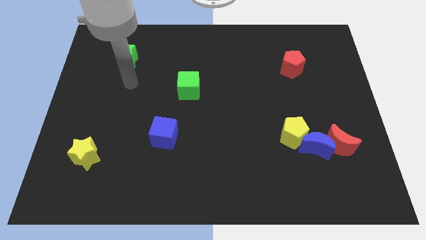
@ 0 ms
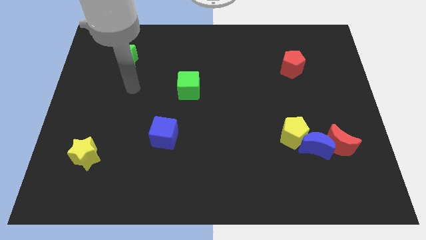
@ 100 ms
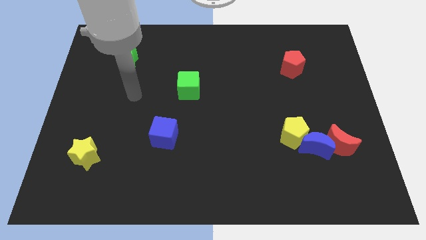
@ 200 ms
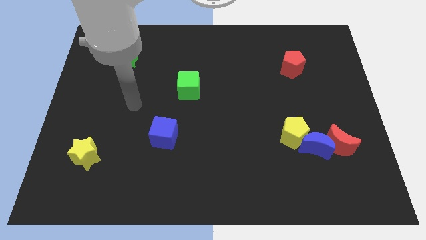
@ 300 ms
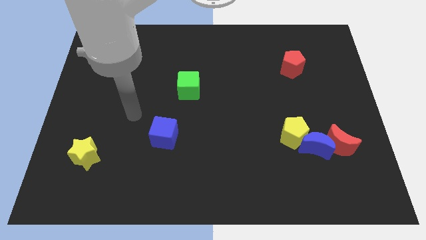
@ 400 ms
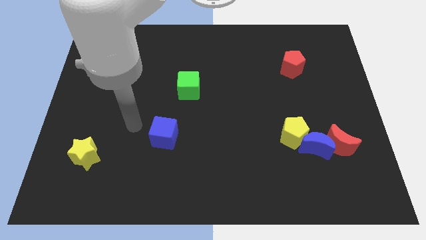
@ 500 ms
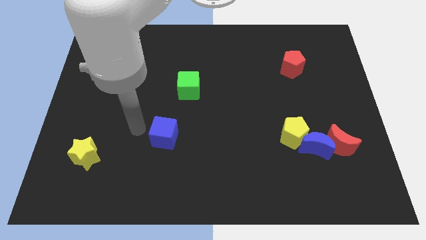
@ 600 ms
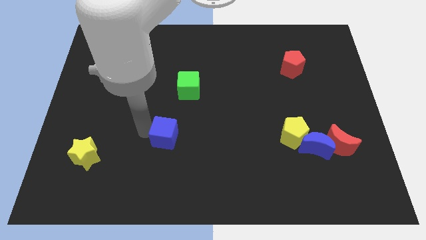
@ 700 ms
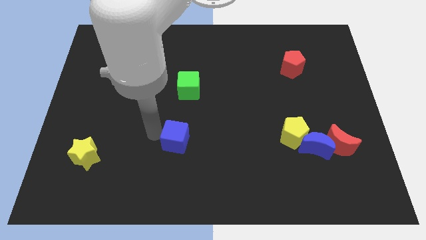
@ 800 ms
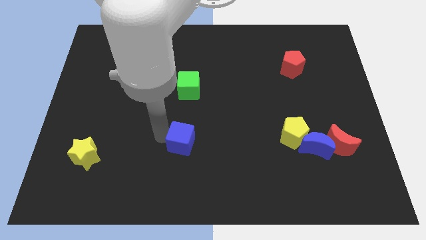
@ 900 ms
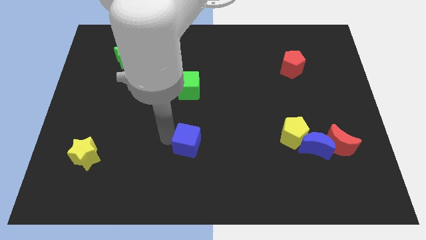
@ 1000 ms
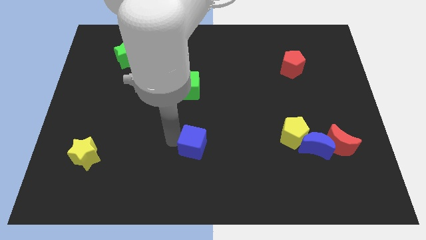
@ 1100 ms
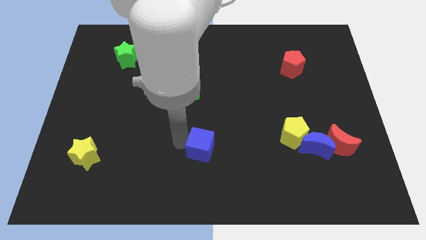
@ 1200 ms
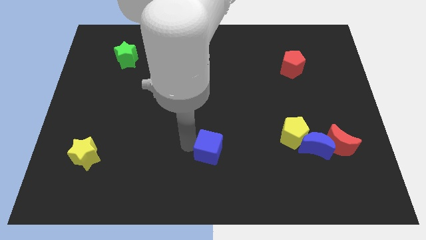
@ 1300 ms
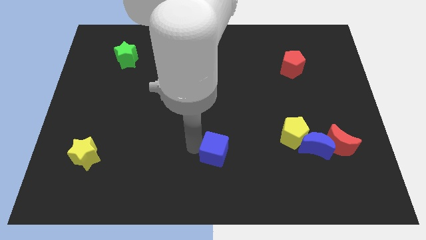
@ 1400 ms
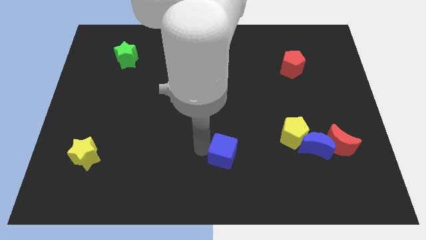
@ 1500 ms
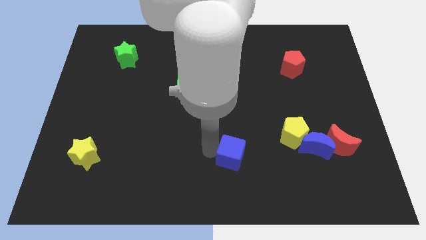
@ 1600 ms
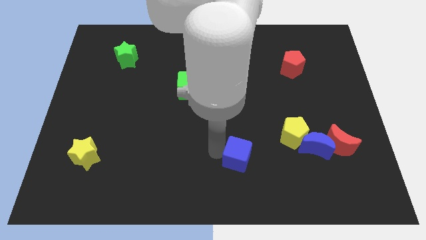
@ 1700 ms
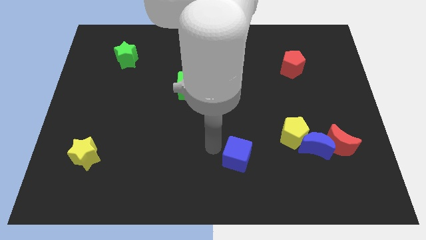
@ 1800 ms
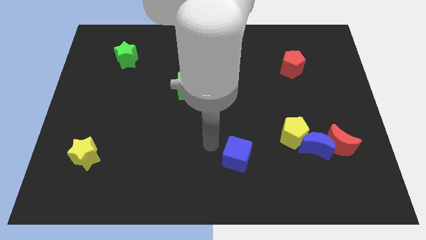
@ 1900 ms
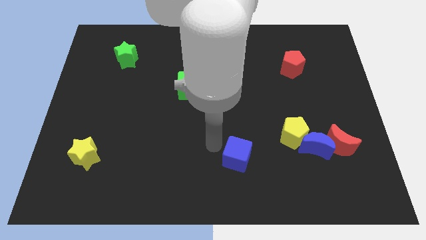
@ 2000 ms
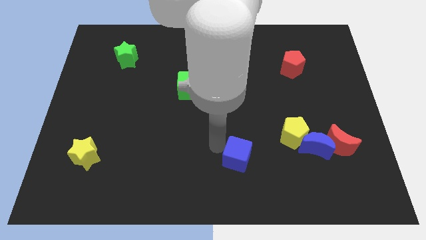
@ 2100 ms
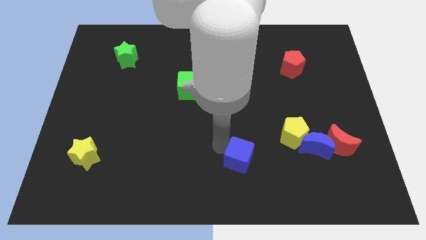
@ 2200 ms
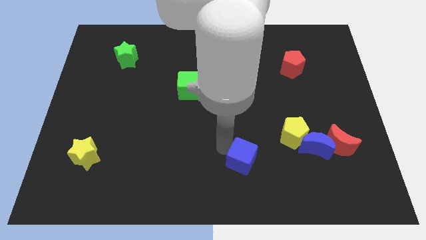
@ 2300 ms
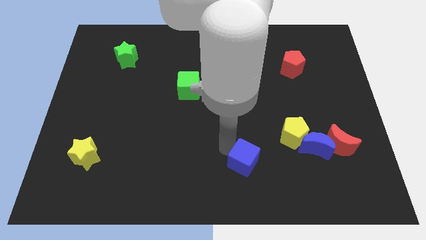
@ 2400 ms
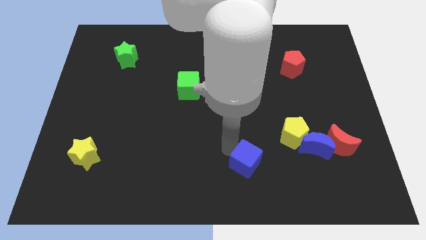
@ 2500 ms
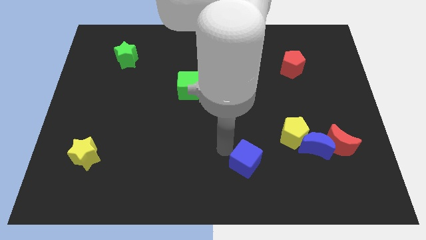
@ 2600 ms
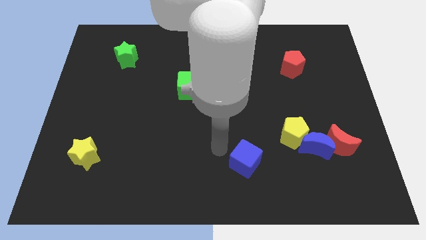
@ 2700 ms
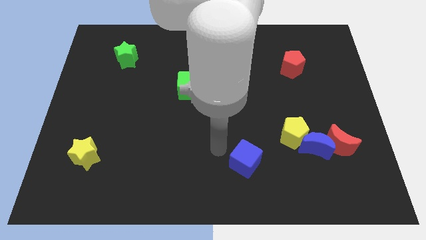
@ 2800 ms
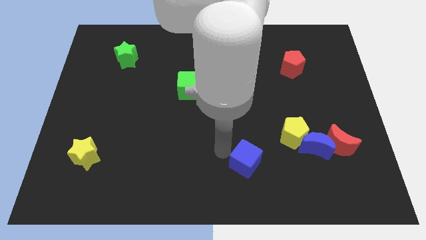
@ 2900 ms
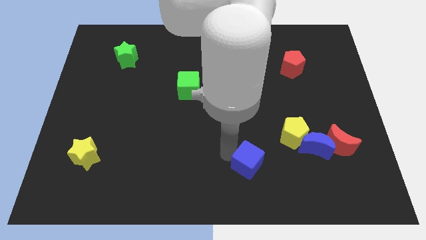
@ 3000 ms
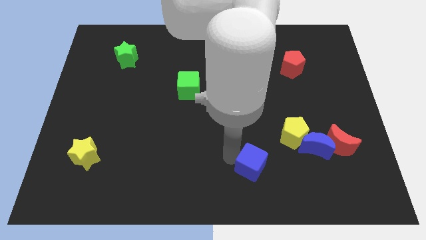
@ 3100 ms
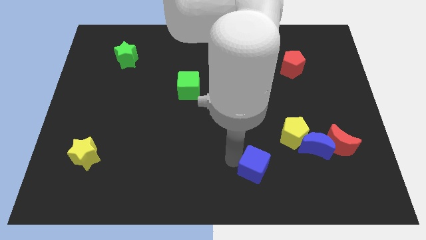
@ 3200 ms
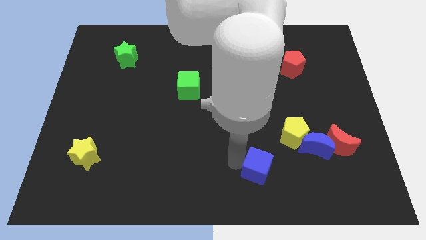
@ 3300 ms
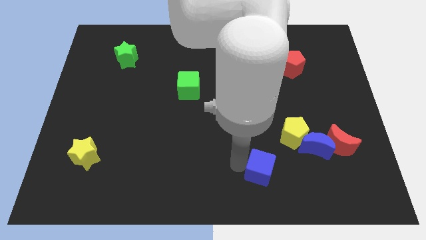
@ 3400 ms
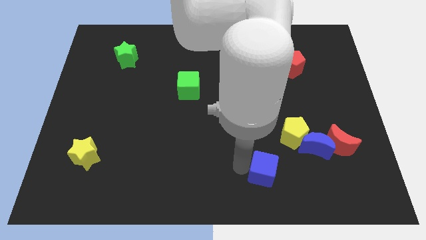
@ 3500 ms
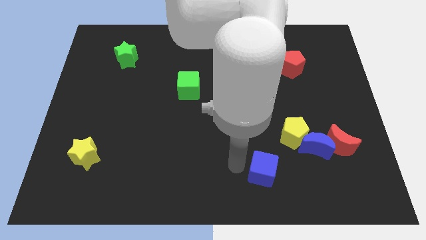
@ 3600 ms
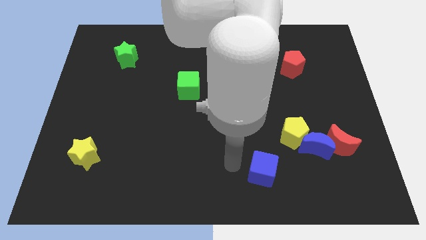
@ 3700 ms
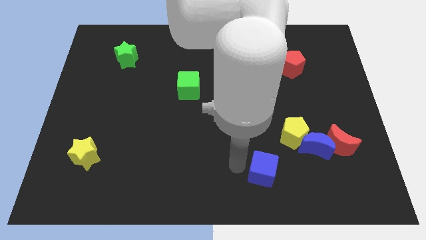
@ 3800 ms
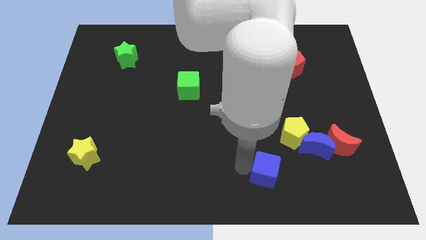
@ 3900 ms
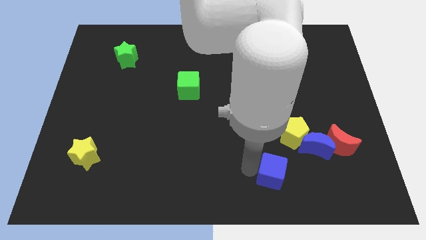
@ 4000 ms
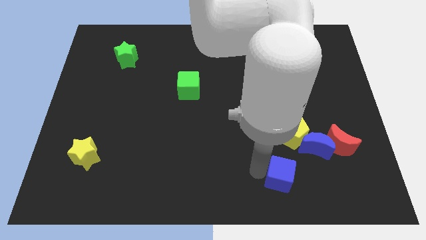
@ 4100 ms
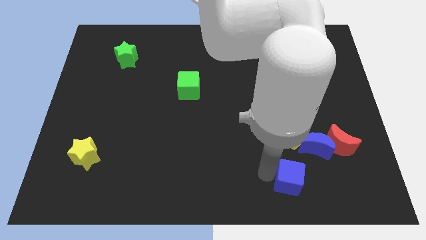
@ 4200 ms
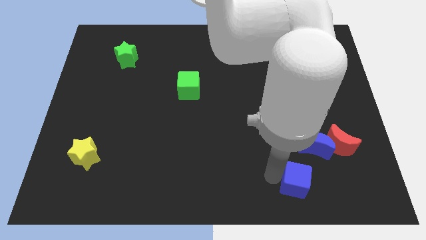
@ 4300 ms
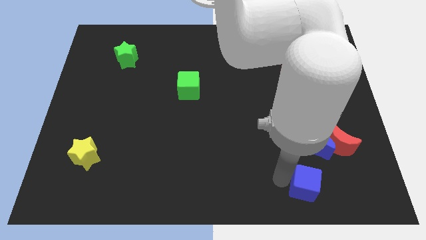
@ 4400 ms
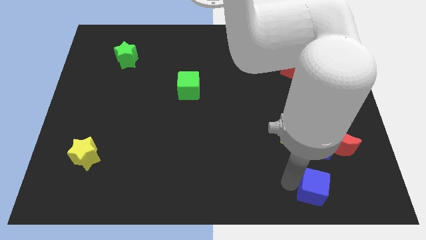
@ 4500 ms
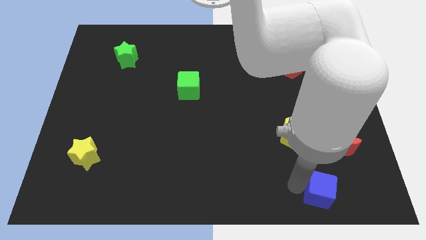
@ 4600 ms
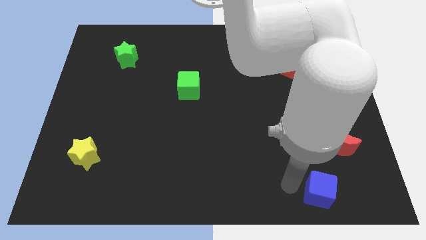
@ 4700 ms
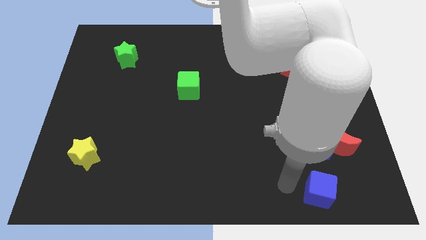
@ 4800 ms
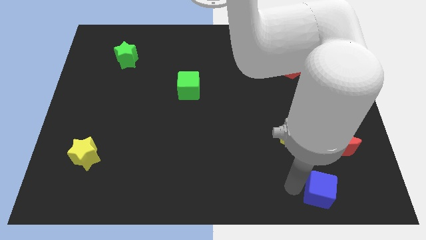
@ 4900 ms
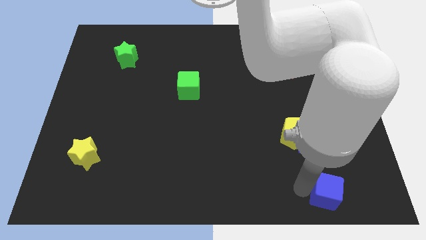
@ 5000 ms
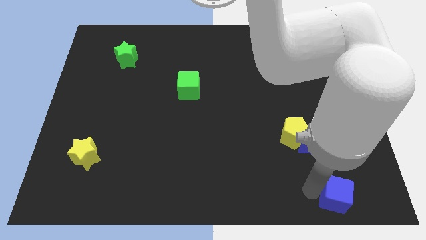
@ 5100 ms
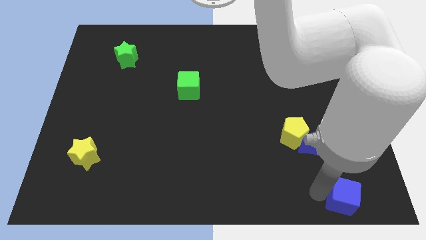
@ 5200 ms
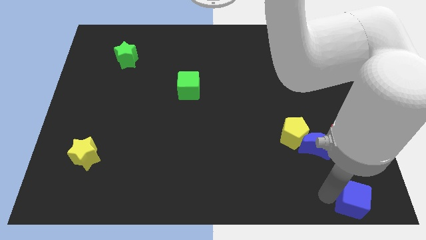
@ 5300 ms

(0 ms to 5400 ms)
push the blue cube to the lower right corner

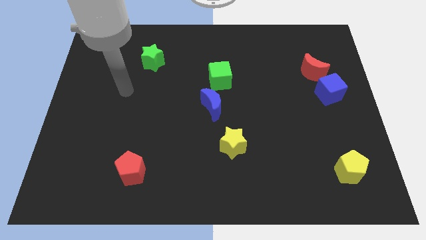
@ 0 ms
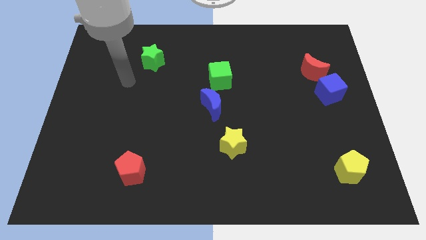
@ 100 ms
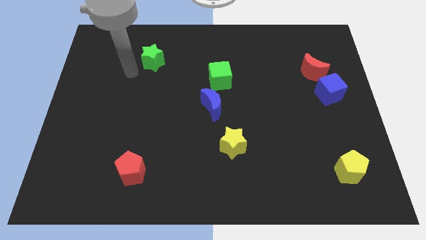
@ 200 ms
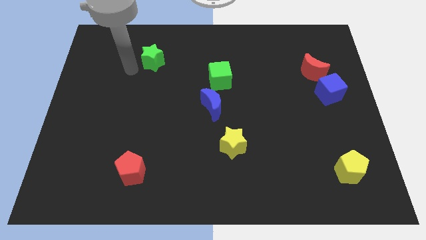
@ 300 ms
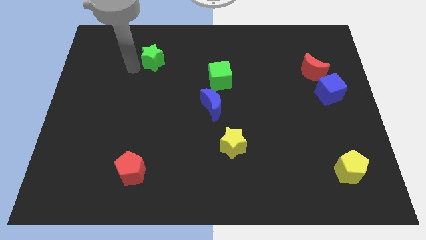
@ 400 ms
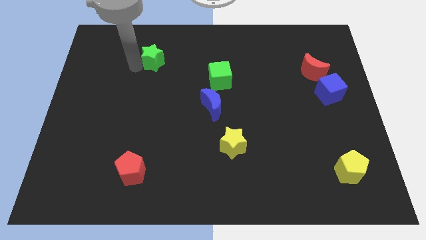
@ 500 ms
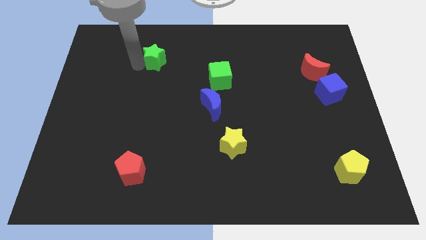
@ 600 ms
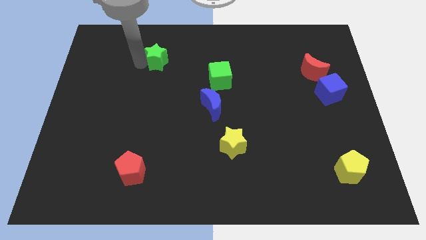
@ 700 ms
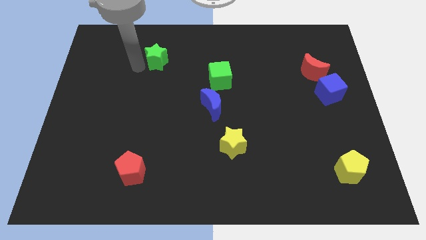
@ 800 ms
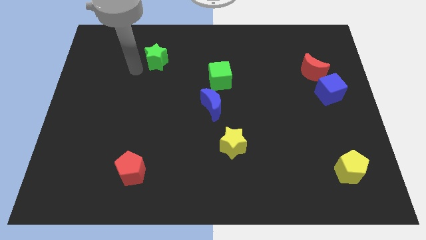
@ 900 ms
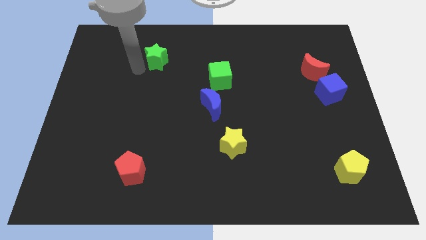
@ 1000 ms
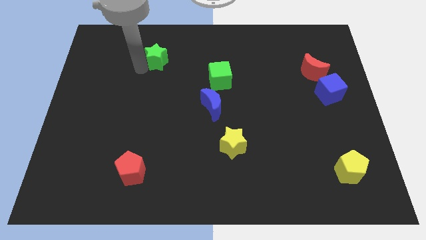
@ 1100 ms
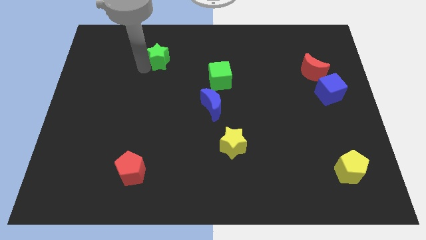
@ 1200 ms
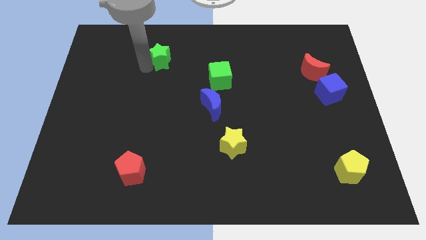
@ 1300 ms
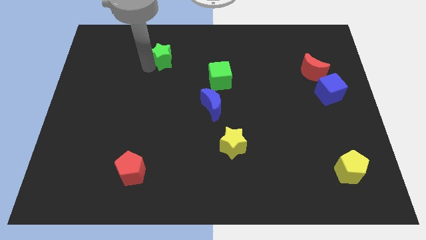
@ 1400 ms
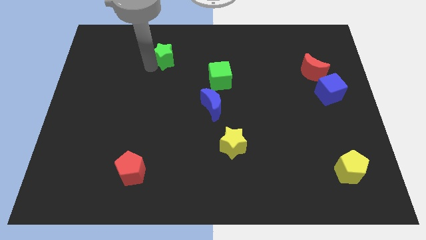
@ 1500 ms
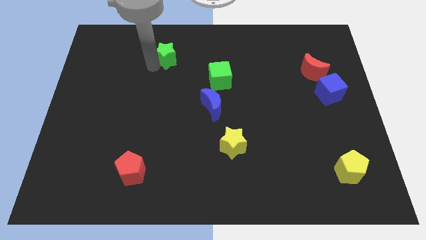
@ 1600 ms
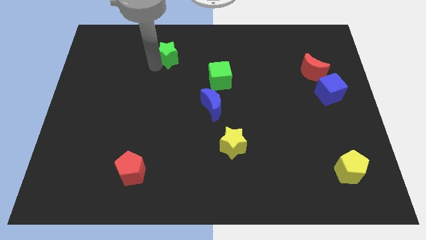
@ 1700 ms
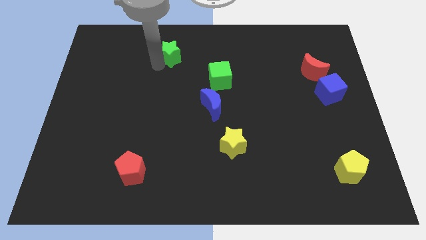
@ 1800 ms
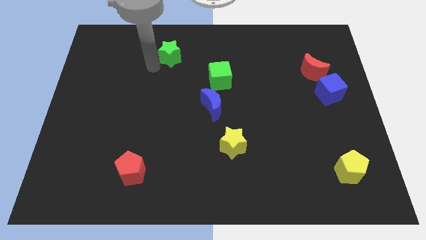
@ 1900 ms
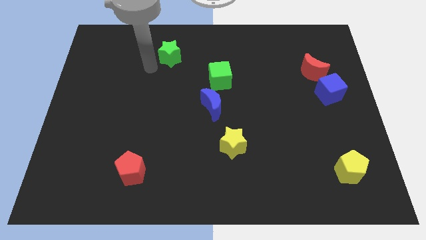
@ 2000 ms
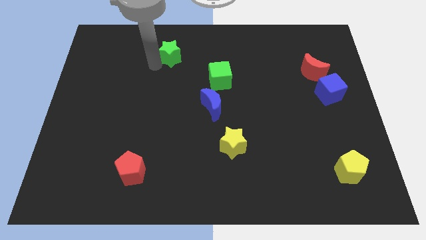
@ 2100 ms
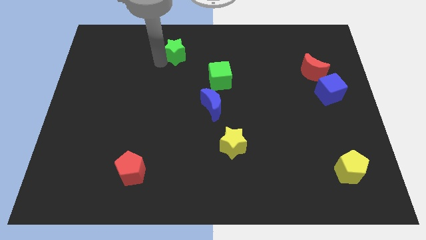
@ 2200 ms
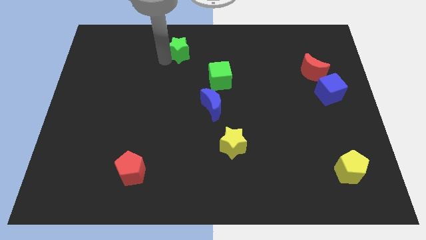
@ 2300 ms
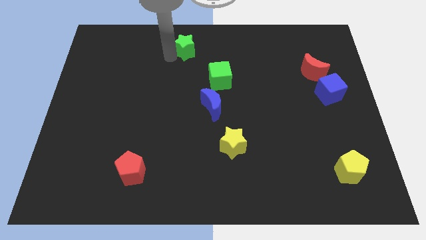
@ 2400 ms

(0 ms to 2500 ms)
slide the green star to the towards your base
